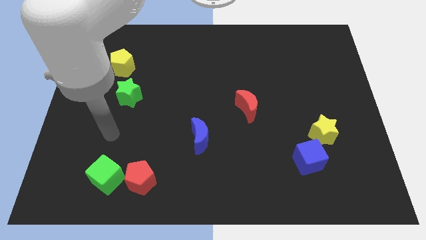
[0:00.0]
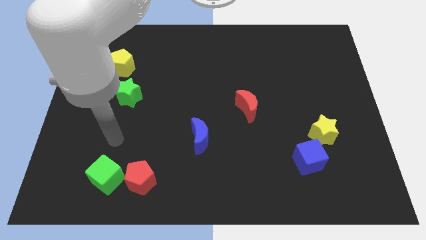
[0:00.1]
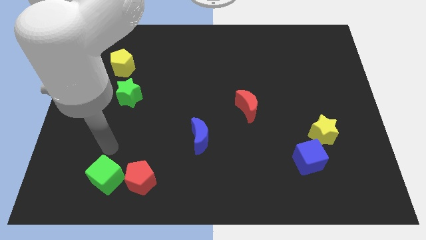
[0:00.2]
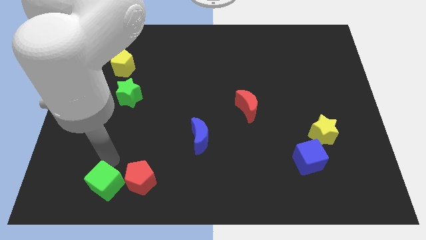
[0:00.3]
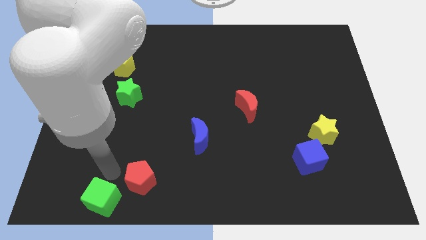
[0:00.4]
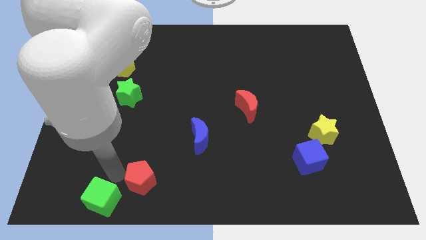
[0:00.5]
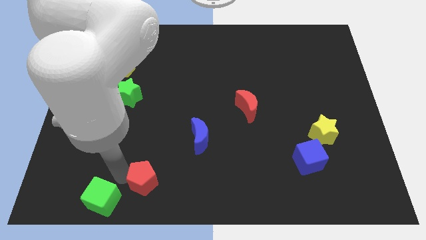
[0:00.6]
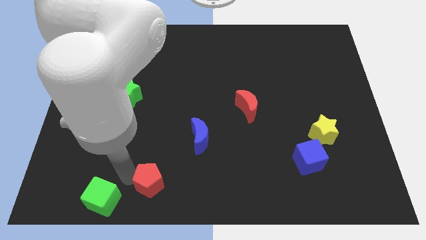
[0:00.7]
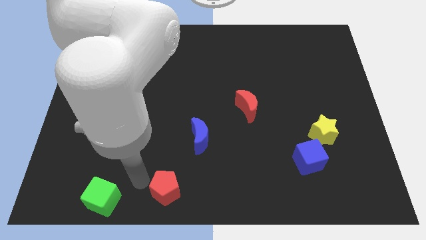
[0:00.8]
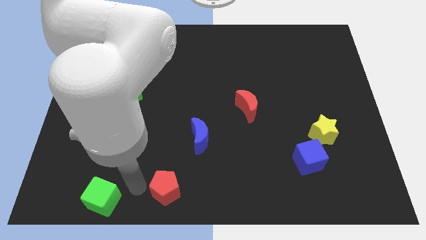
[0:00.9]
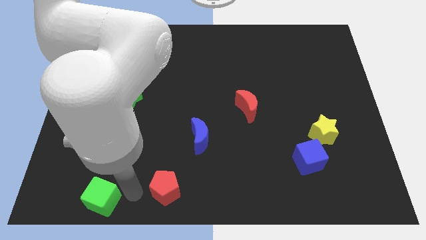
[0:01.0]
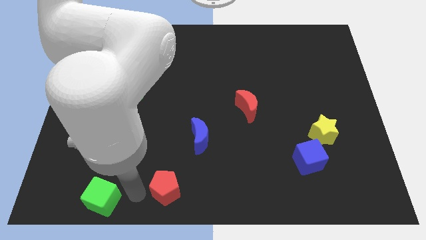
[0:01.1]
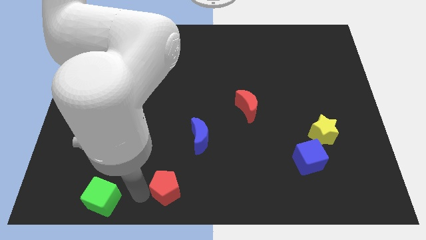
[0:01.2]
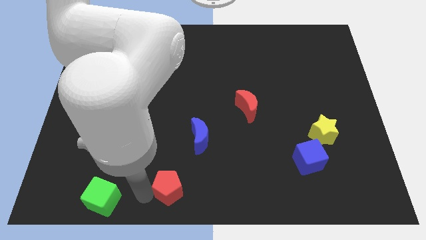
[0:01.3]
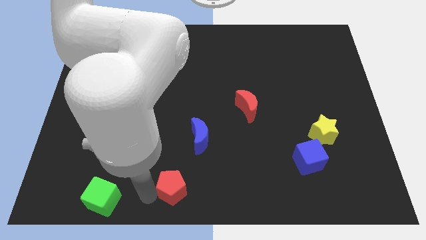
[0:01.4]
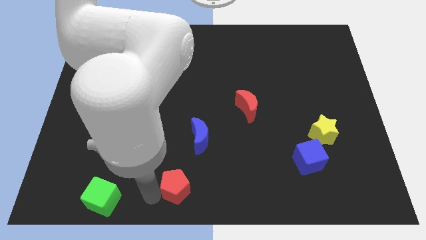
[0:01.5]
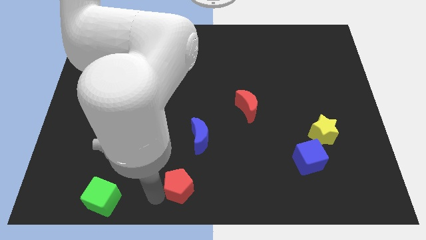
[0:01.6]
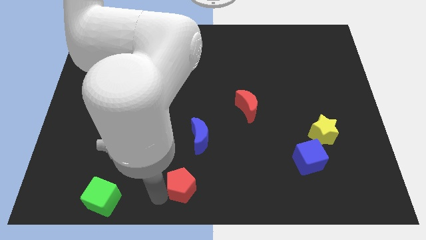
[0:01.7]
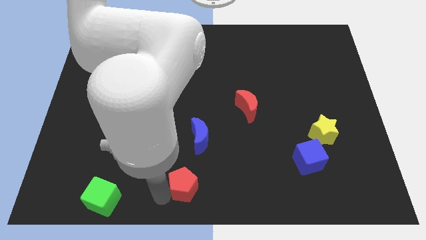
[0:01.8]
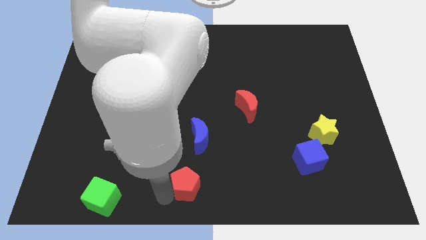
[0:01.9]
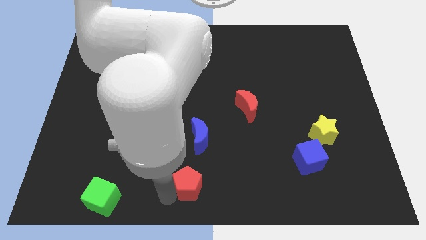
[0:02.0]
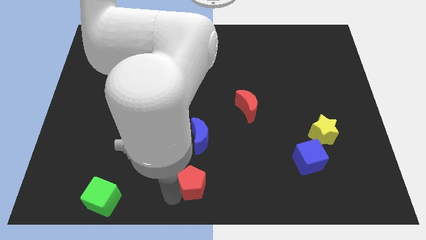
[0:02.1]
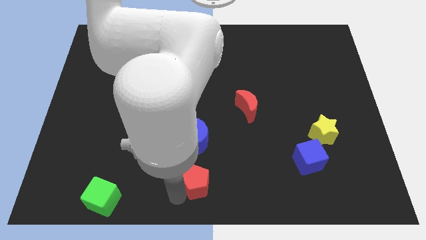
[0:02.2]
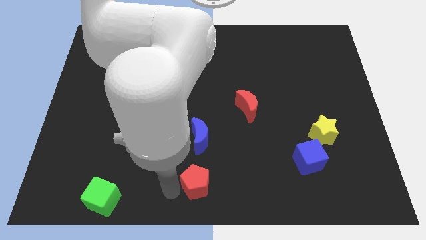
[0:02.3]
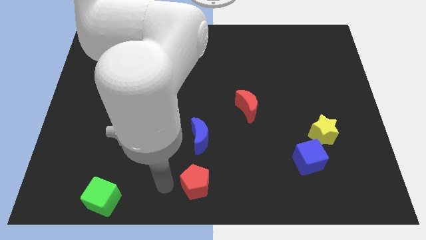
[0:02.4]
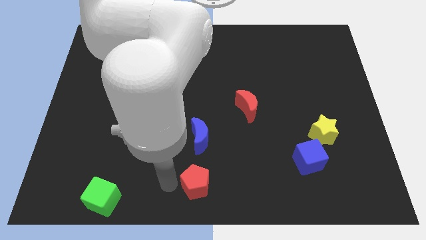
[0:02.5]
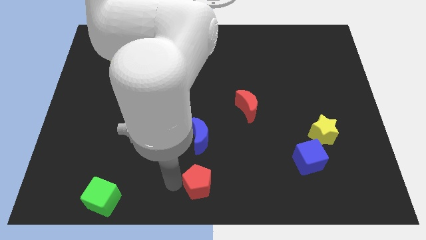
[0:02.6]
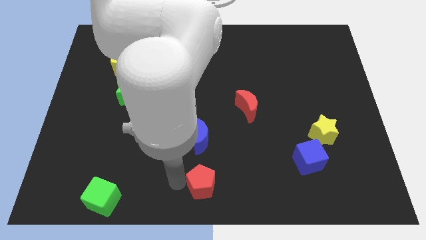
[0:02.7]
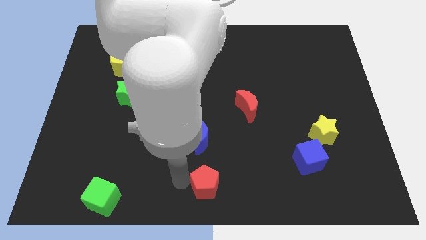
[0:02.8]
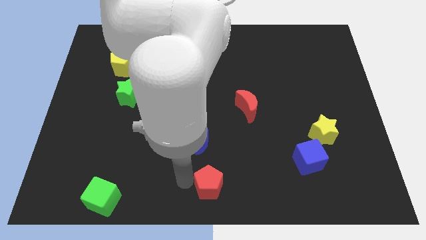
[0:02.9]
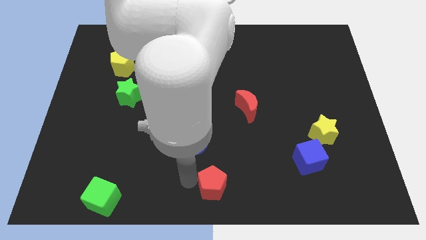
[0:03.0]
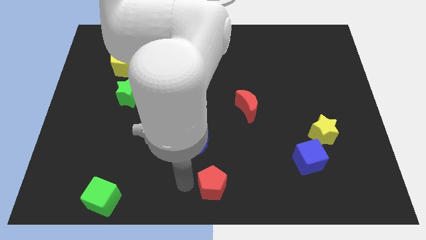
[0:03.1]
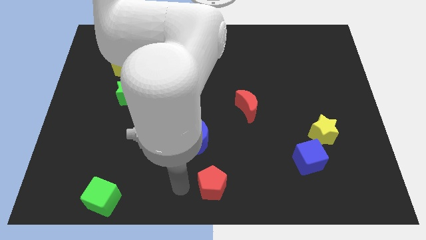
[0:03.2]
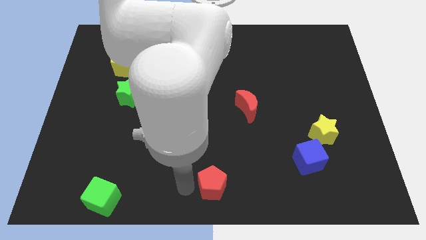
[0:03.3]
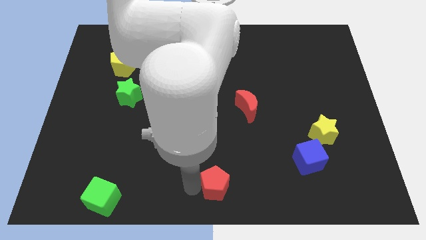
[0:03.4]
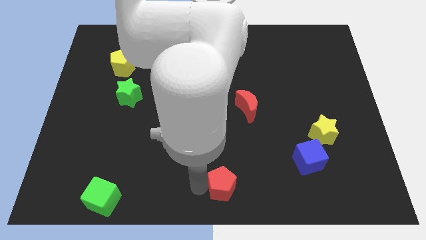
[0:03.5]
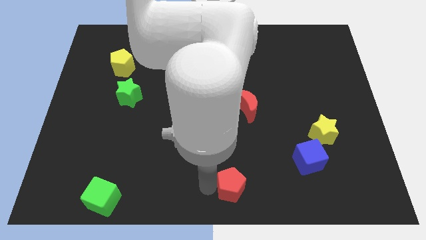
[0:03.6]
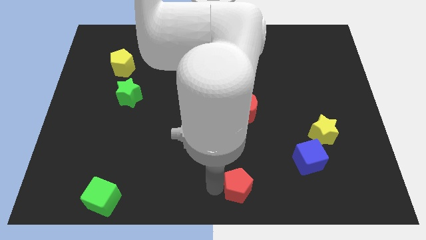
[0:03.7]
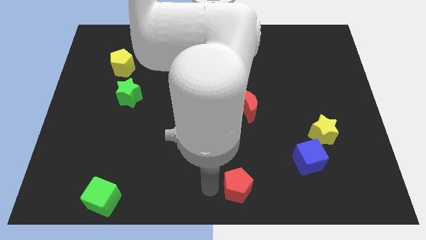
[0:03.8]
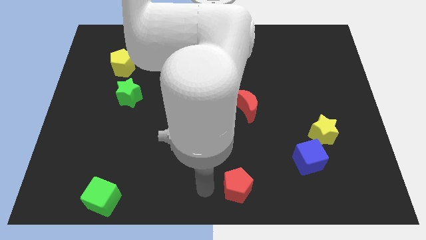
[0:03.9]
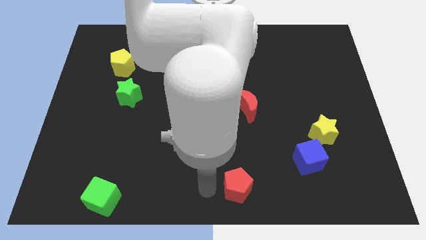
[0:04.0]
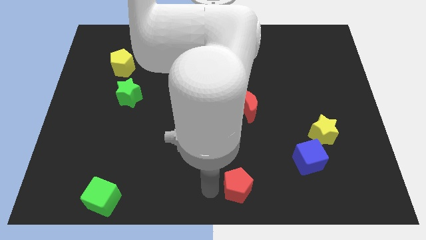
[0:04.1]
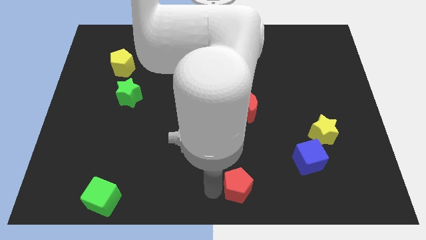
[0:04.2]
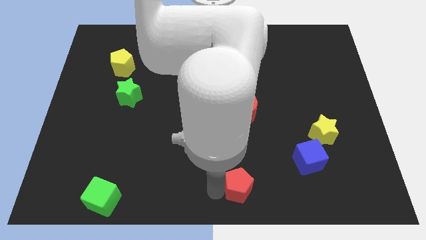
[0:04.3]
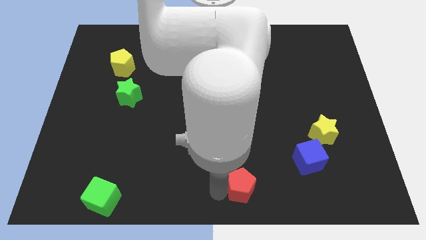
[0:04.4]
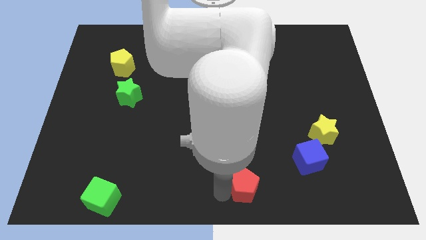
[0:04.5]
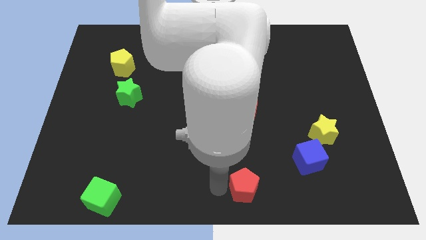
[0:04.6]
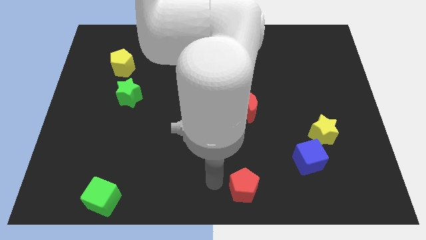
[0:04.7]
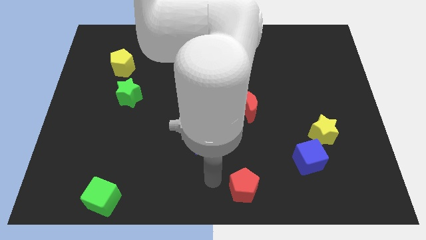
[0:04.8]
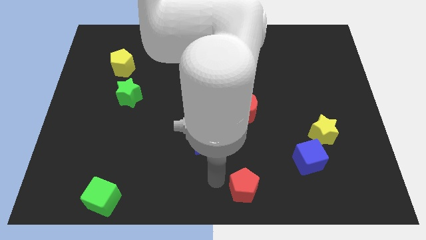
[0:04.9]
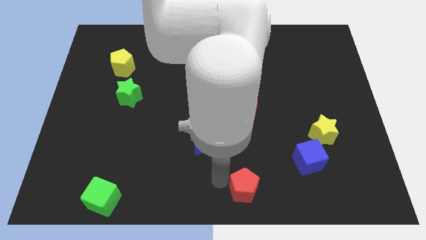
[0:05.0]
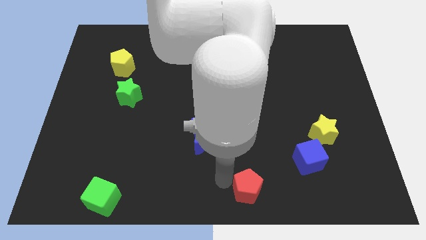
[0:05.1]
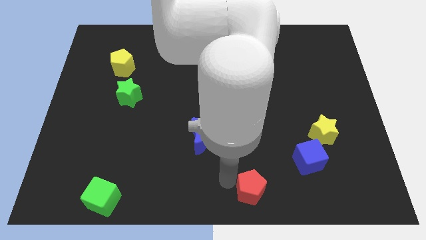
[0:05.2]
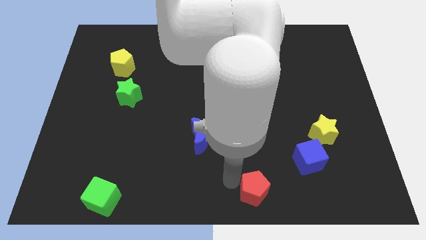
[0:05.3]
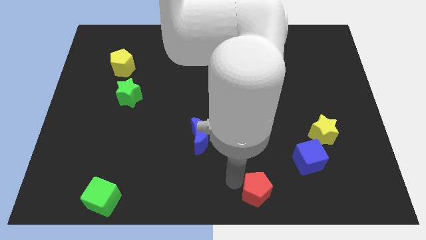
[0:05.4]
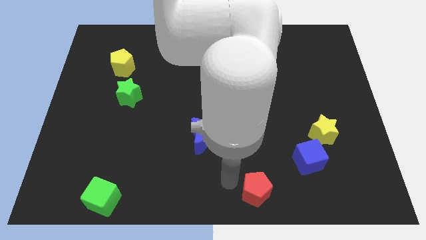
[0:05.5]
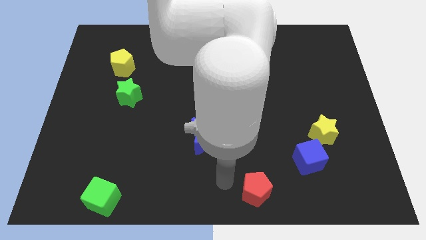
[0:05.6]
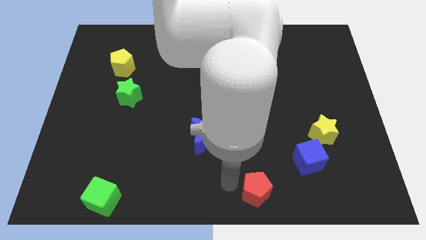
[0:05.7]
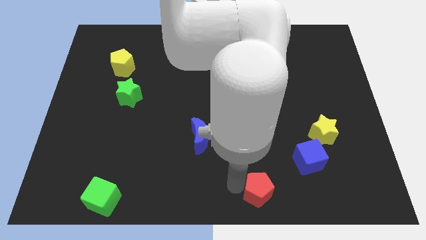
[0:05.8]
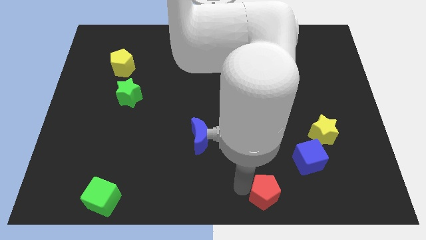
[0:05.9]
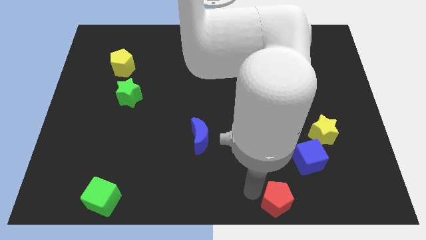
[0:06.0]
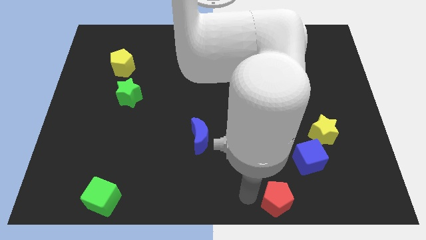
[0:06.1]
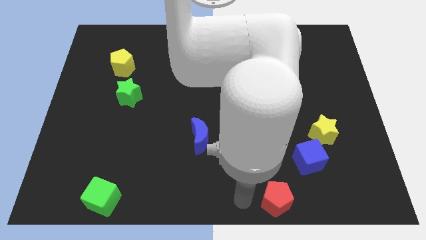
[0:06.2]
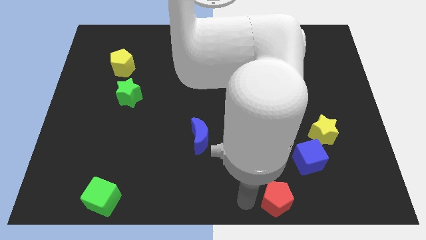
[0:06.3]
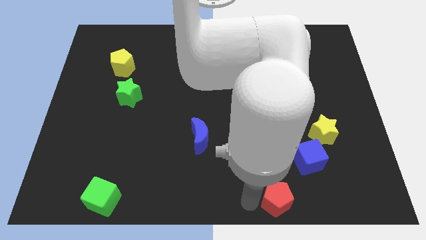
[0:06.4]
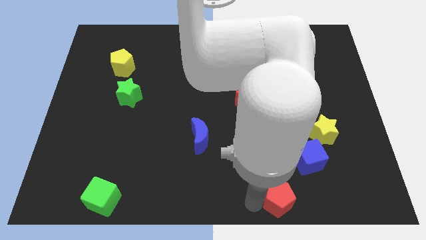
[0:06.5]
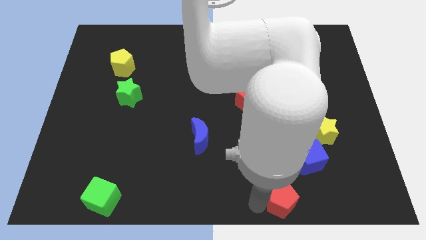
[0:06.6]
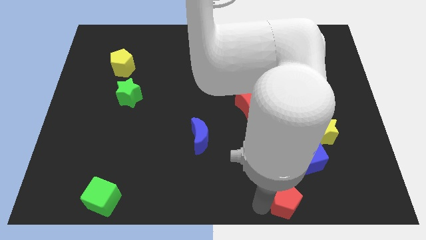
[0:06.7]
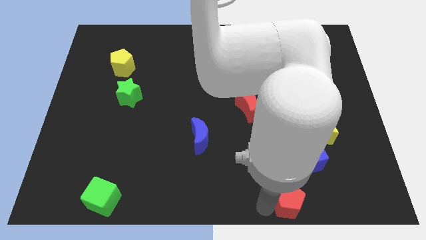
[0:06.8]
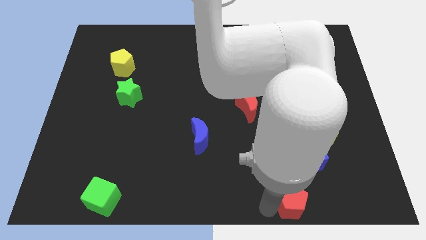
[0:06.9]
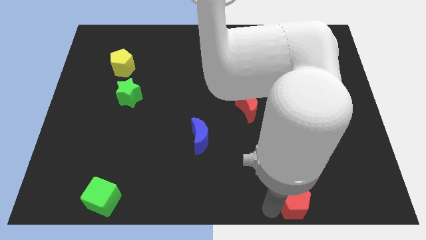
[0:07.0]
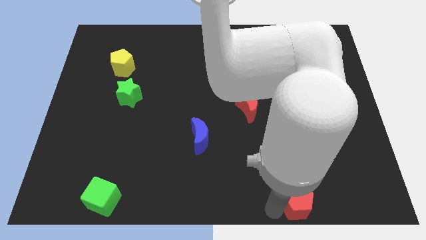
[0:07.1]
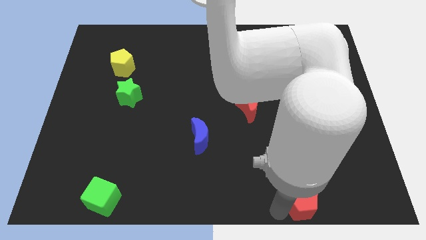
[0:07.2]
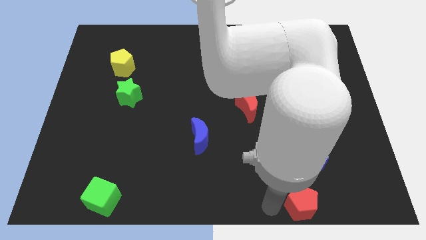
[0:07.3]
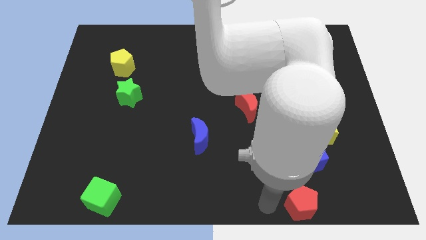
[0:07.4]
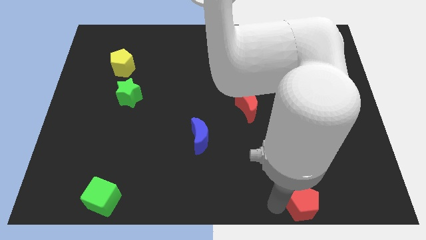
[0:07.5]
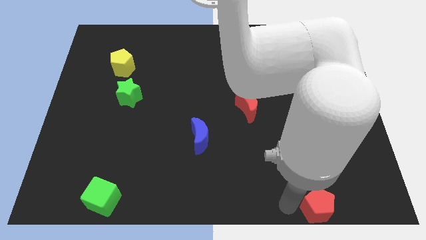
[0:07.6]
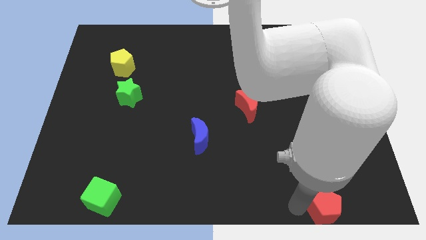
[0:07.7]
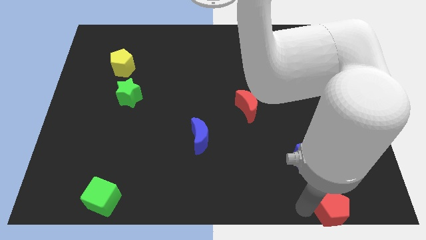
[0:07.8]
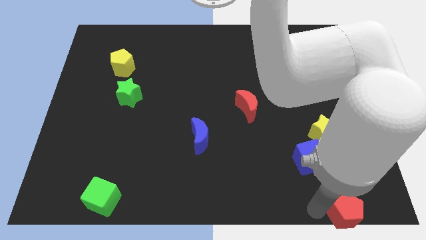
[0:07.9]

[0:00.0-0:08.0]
put the red pentagon to the lower right corner
